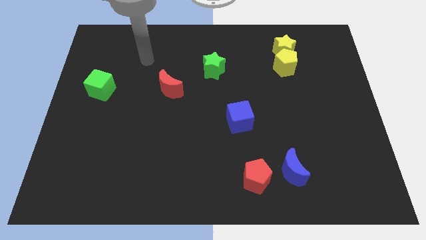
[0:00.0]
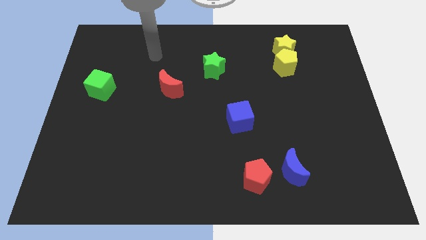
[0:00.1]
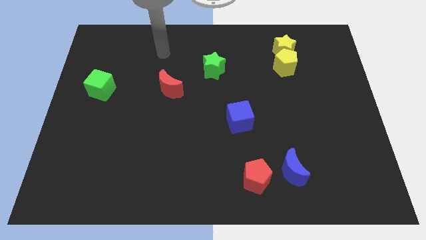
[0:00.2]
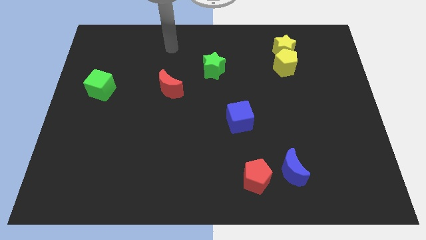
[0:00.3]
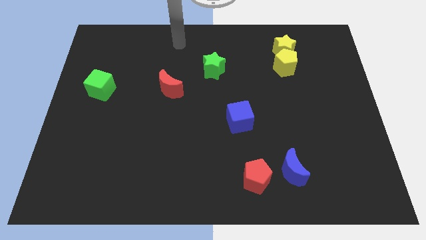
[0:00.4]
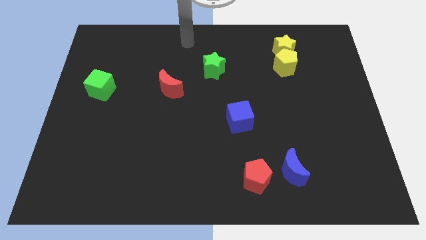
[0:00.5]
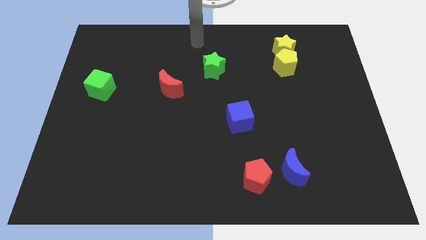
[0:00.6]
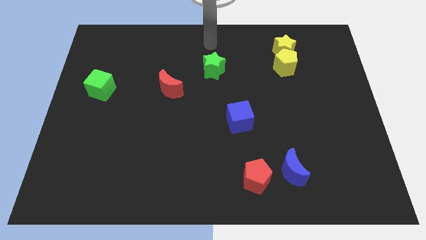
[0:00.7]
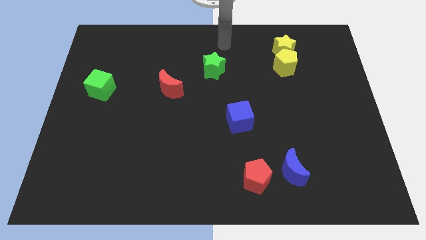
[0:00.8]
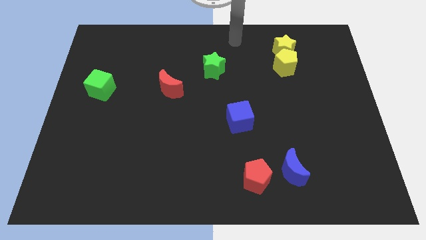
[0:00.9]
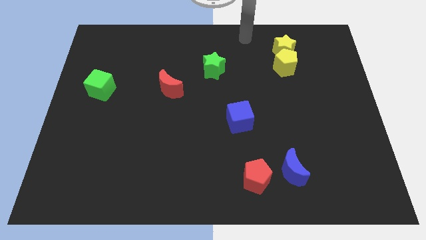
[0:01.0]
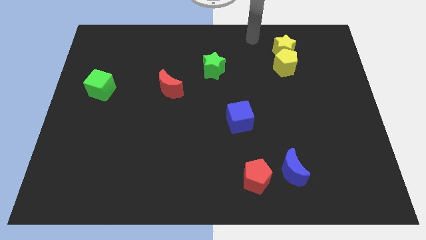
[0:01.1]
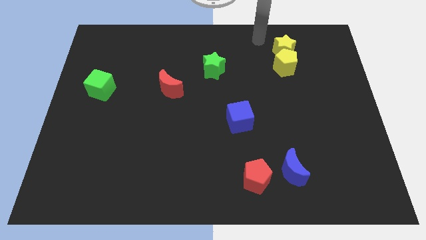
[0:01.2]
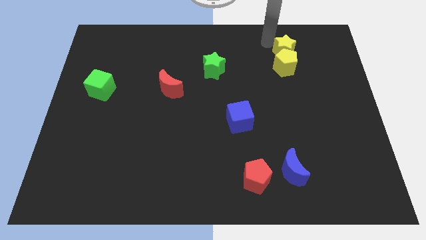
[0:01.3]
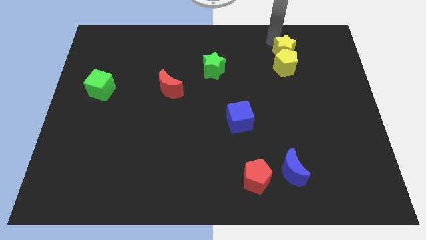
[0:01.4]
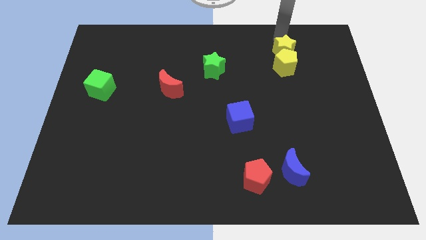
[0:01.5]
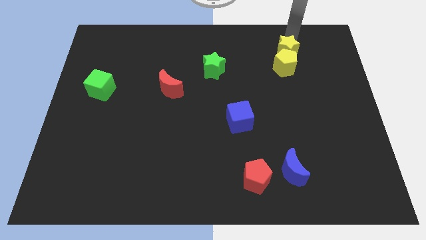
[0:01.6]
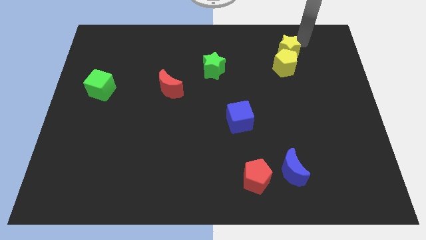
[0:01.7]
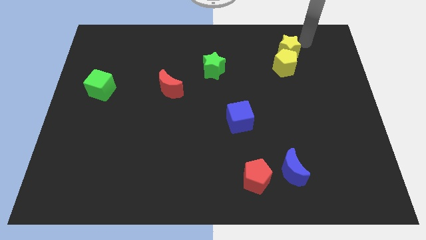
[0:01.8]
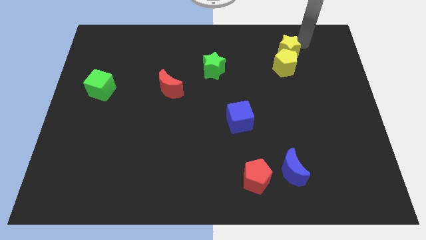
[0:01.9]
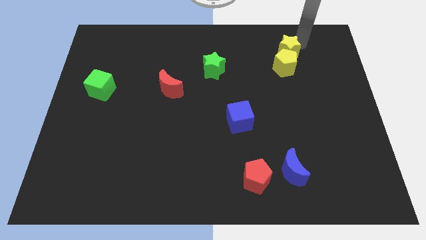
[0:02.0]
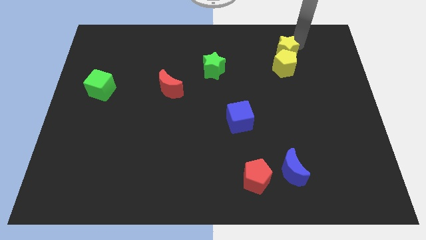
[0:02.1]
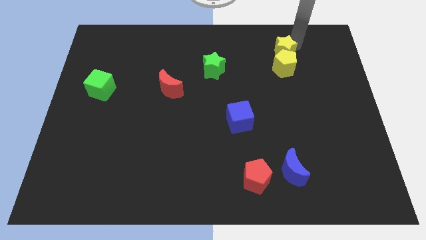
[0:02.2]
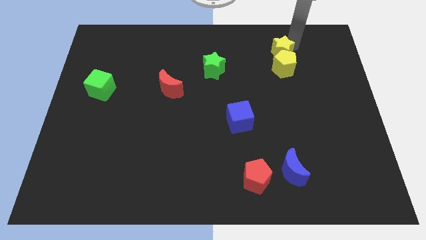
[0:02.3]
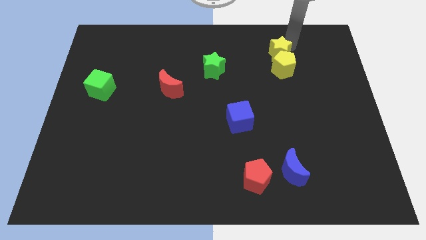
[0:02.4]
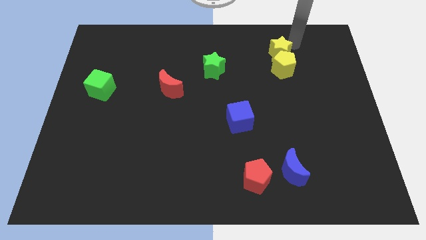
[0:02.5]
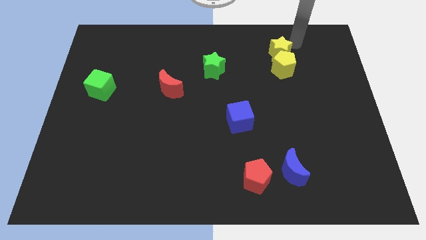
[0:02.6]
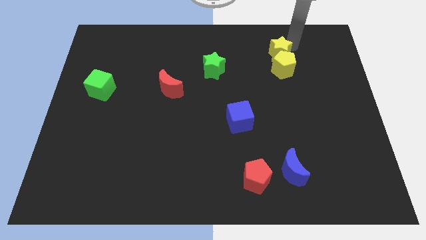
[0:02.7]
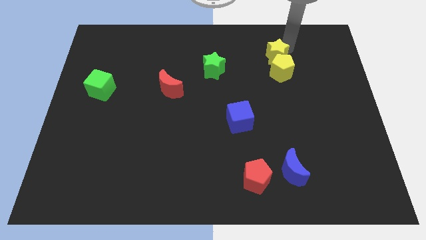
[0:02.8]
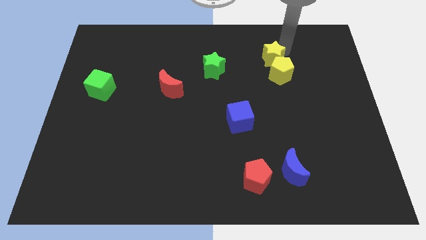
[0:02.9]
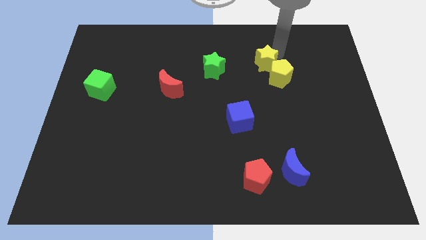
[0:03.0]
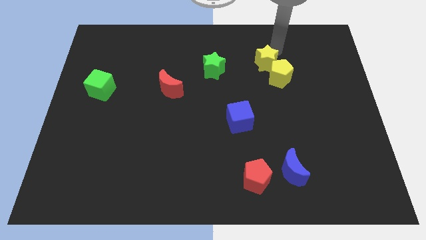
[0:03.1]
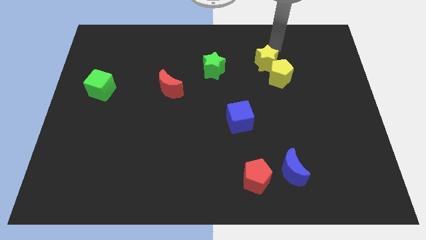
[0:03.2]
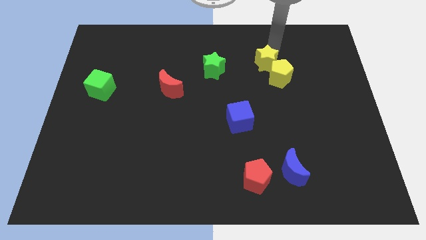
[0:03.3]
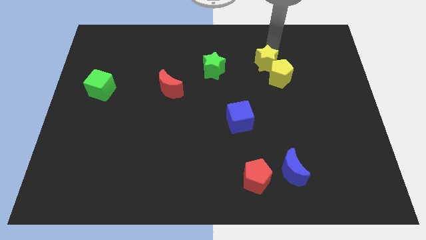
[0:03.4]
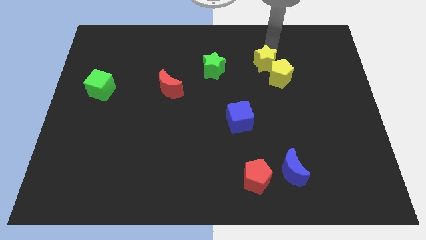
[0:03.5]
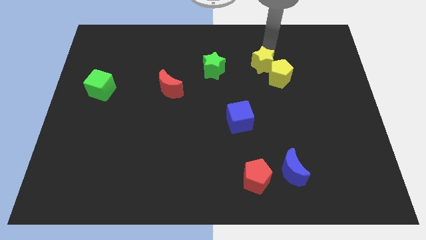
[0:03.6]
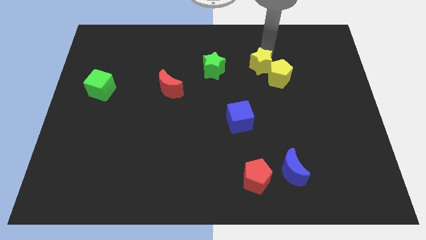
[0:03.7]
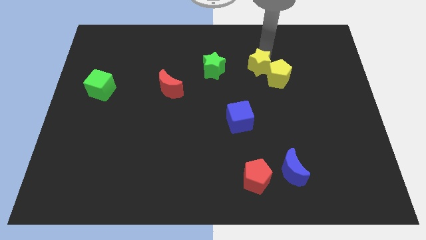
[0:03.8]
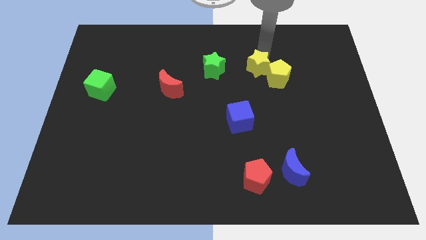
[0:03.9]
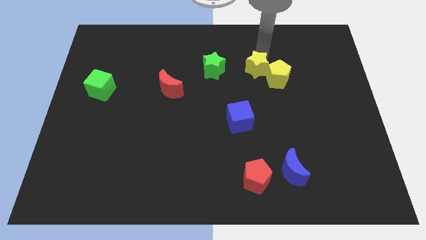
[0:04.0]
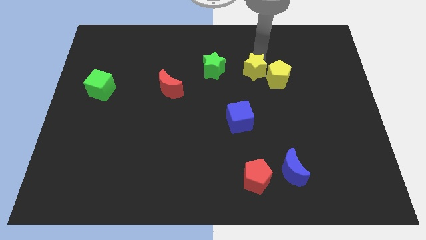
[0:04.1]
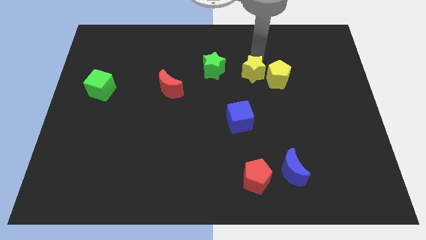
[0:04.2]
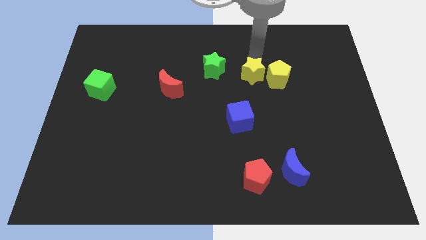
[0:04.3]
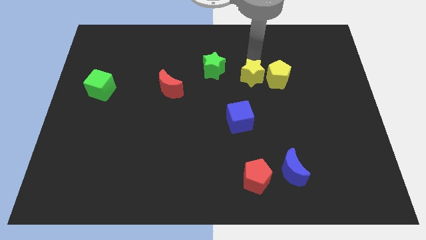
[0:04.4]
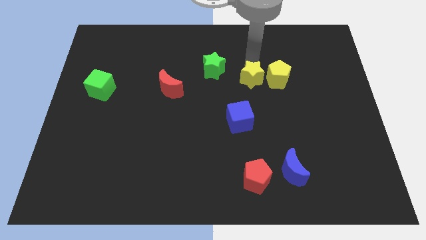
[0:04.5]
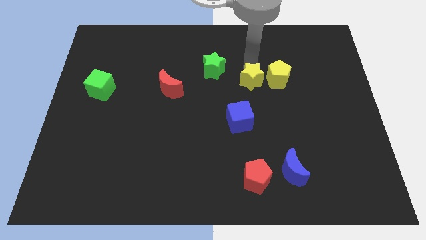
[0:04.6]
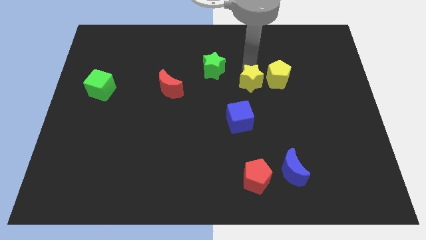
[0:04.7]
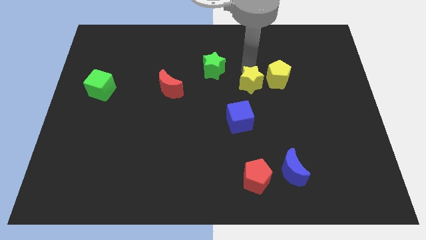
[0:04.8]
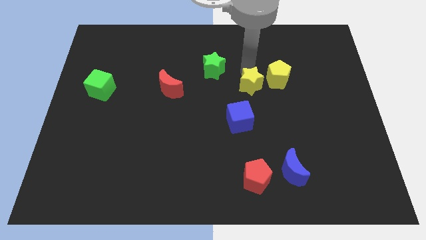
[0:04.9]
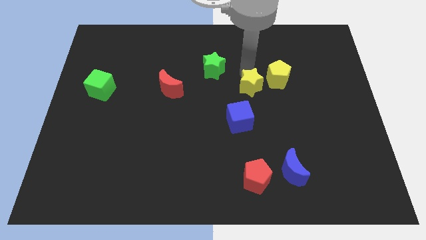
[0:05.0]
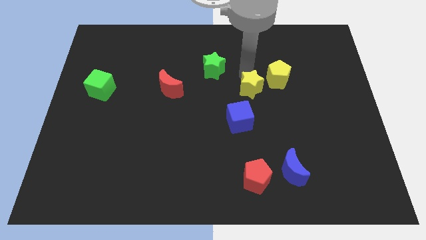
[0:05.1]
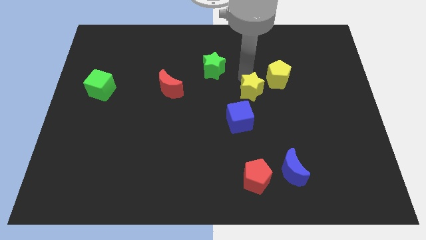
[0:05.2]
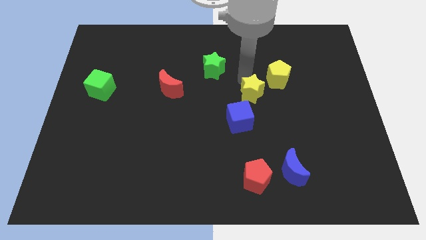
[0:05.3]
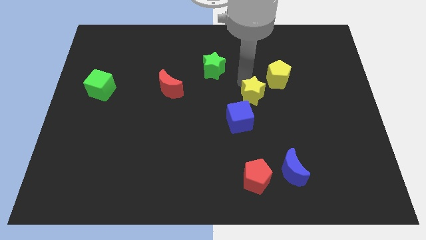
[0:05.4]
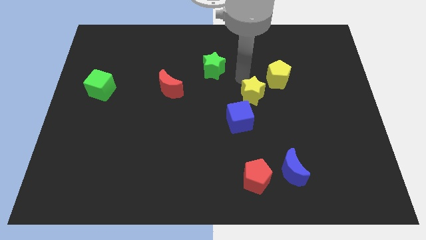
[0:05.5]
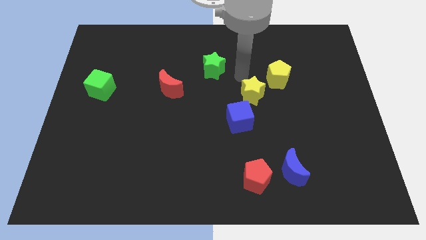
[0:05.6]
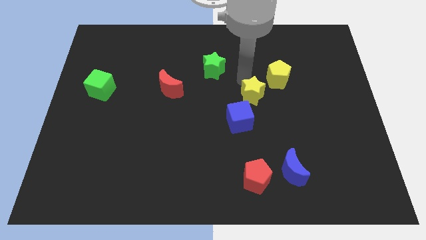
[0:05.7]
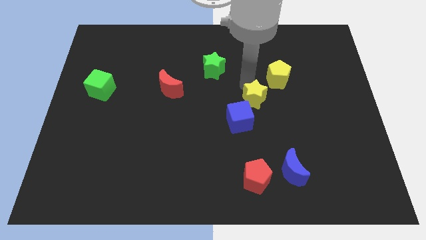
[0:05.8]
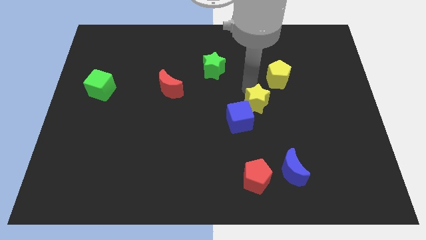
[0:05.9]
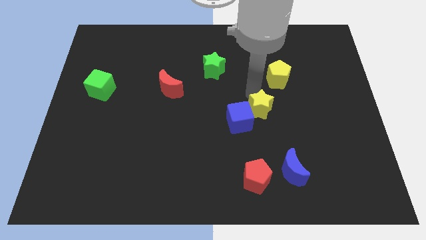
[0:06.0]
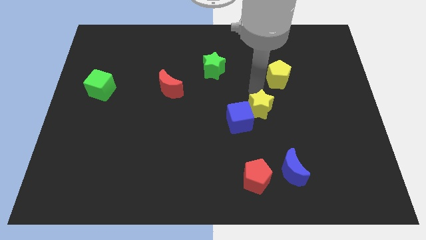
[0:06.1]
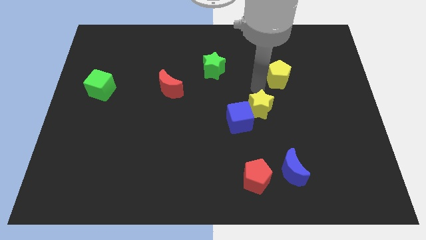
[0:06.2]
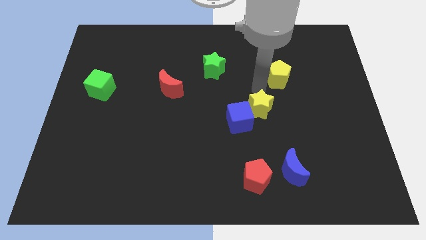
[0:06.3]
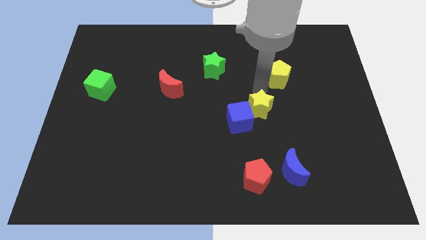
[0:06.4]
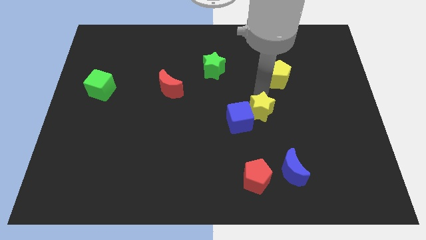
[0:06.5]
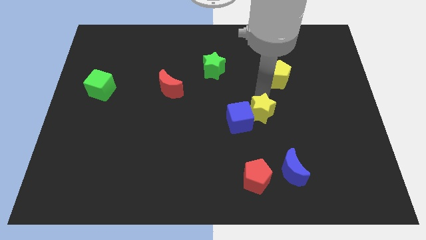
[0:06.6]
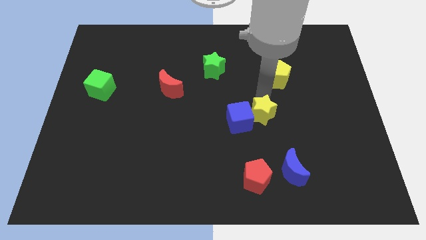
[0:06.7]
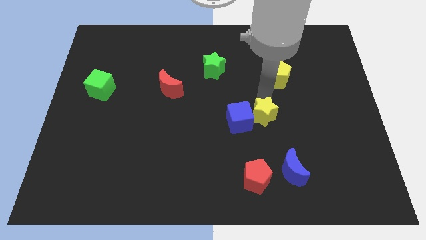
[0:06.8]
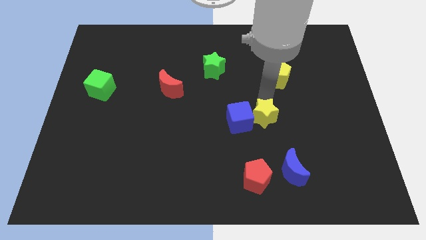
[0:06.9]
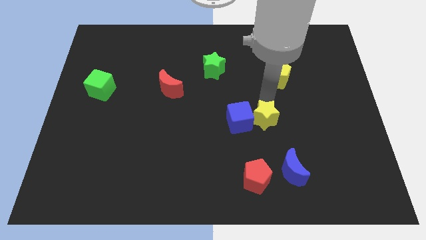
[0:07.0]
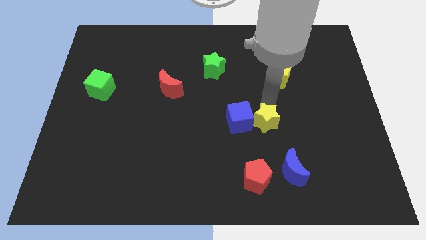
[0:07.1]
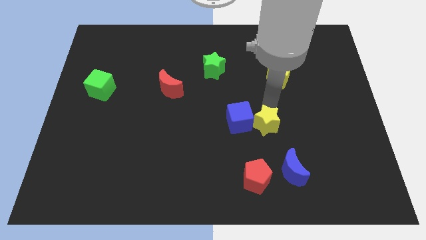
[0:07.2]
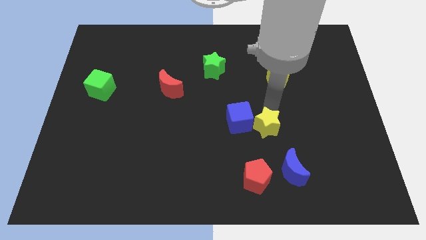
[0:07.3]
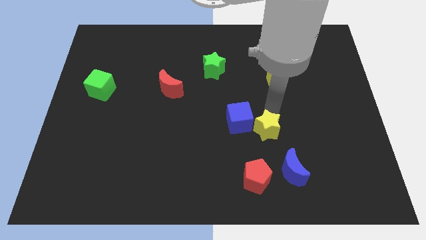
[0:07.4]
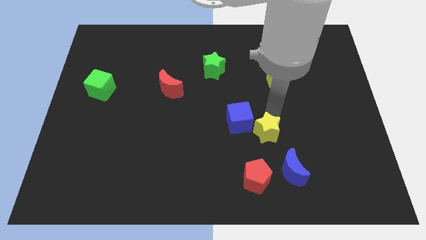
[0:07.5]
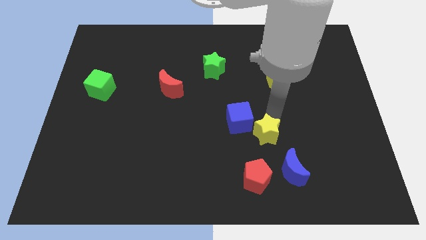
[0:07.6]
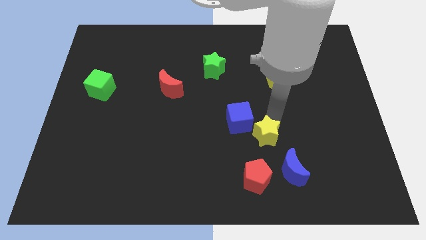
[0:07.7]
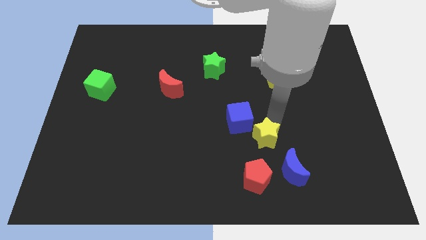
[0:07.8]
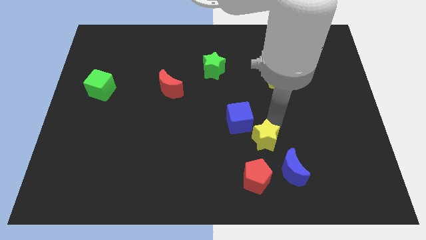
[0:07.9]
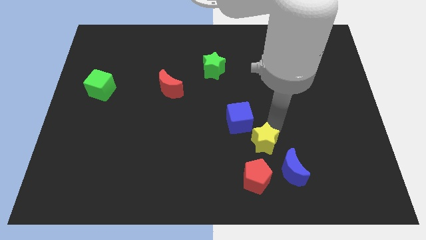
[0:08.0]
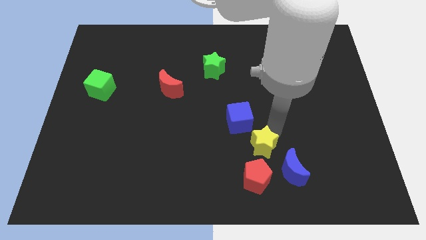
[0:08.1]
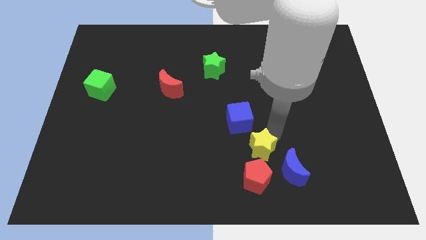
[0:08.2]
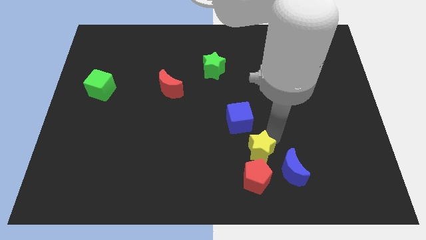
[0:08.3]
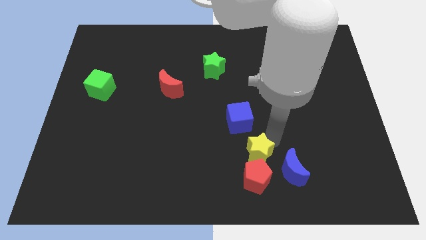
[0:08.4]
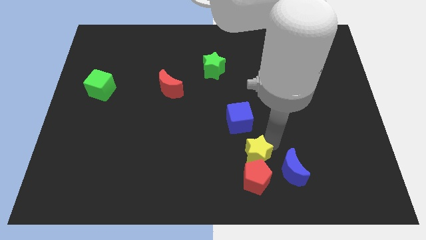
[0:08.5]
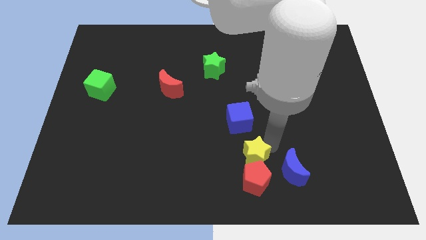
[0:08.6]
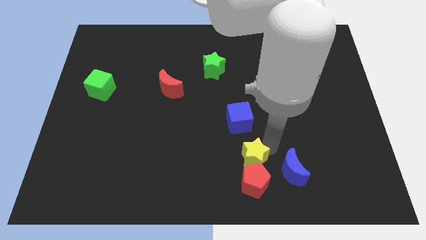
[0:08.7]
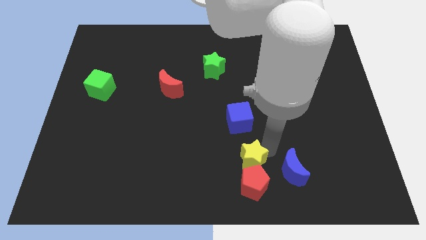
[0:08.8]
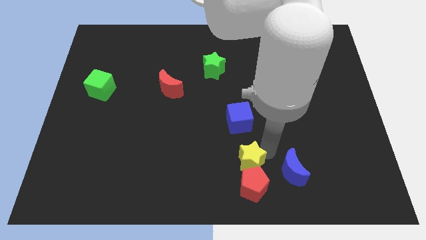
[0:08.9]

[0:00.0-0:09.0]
put the yellow star to the bottom
